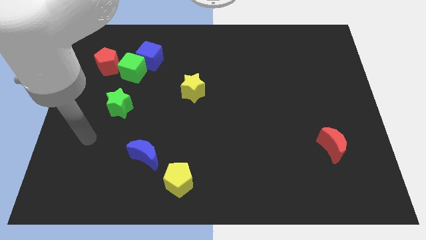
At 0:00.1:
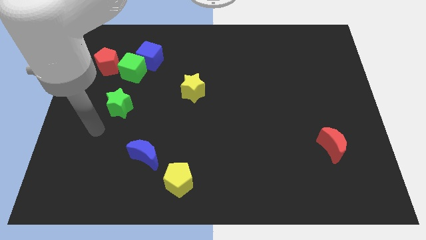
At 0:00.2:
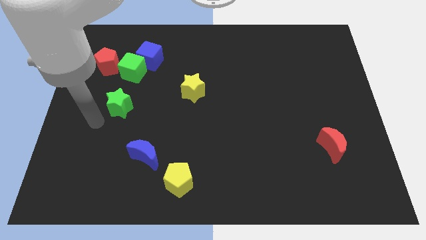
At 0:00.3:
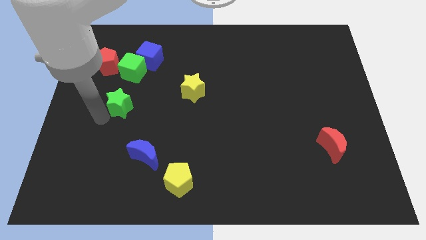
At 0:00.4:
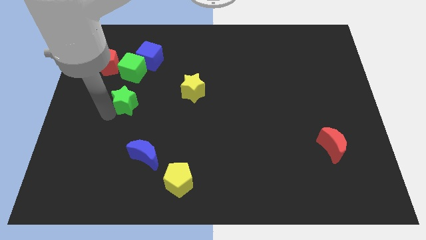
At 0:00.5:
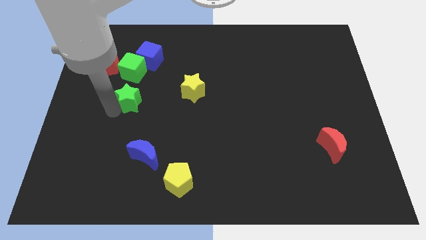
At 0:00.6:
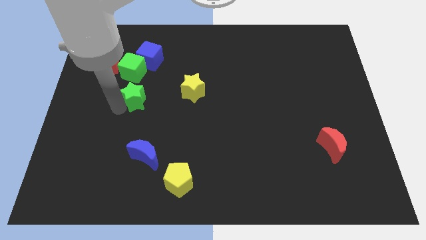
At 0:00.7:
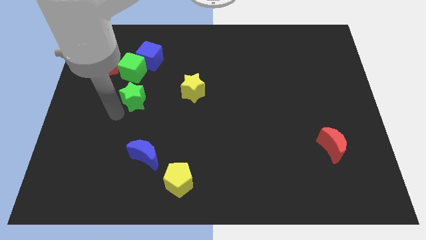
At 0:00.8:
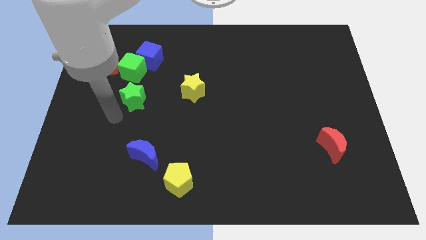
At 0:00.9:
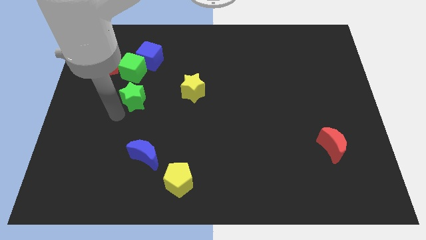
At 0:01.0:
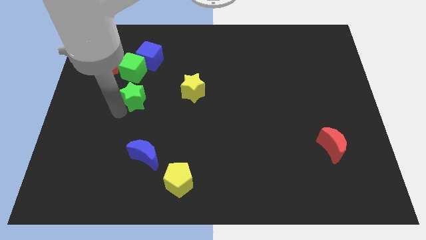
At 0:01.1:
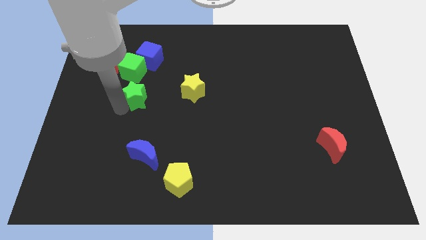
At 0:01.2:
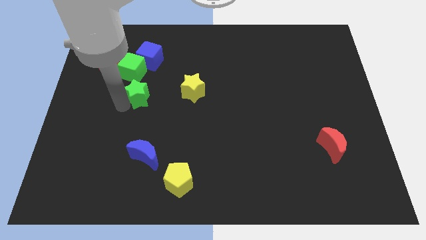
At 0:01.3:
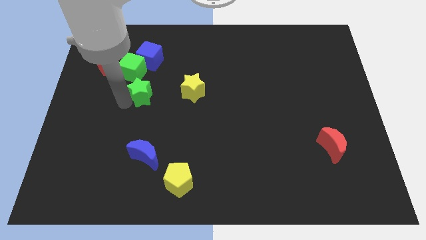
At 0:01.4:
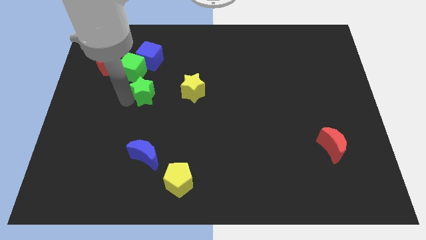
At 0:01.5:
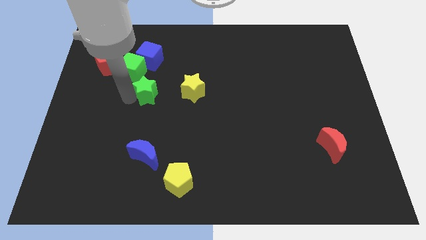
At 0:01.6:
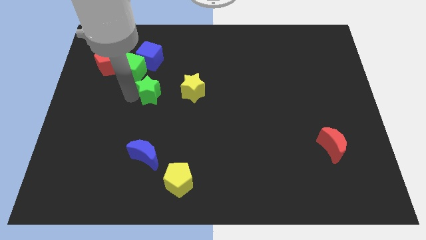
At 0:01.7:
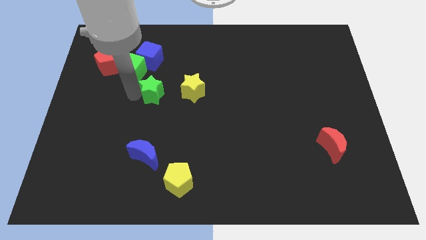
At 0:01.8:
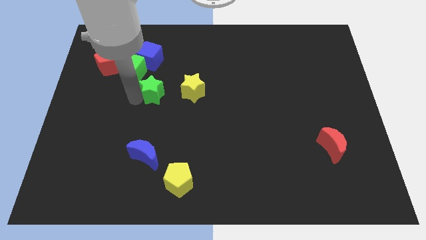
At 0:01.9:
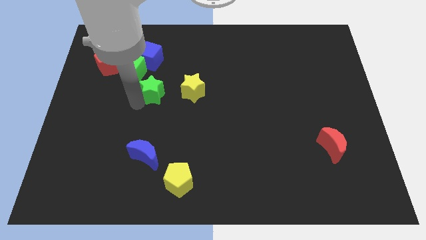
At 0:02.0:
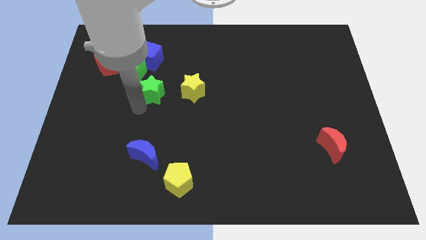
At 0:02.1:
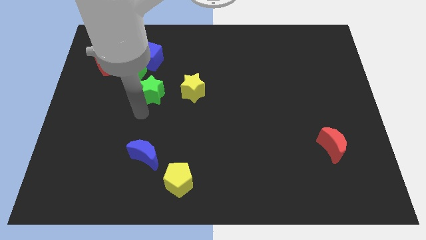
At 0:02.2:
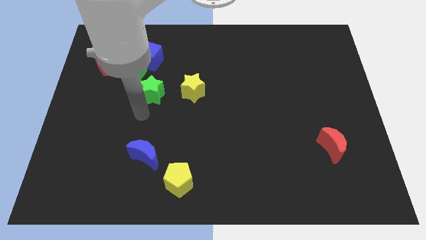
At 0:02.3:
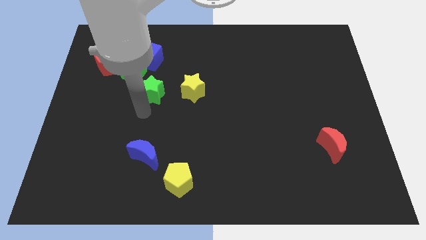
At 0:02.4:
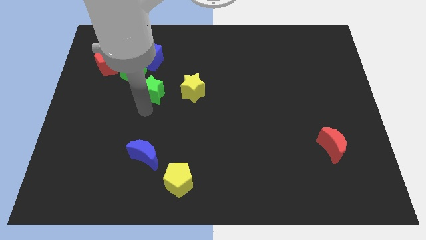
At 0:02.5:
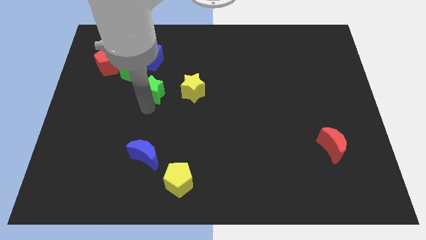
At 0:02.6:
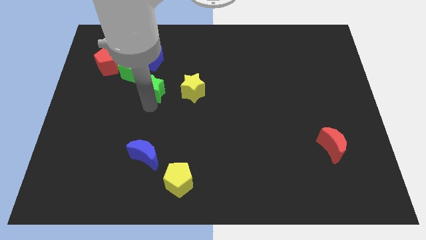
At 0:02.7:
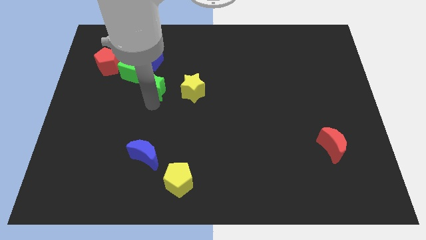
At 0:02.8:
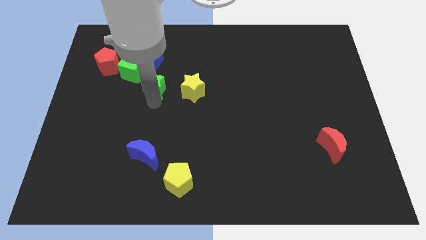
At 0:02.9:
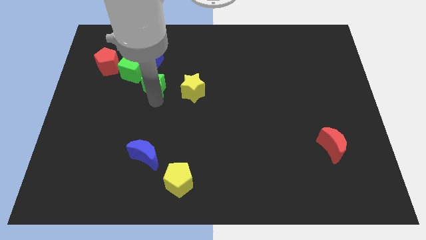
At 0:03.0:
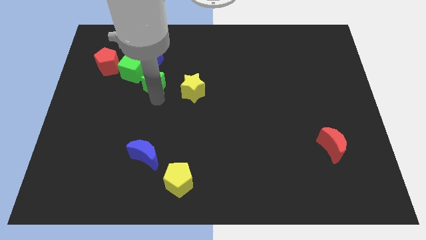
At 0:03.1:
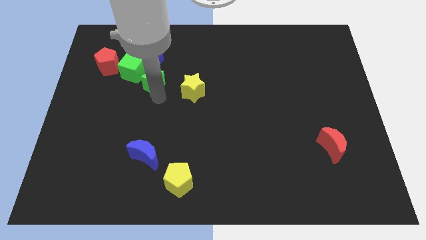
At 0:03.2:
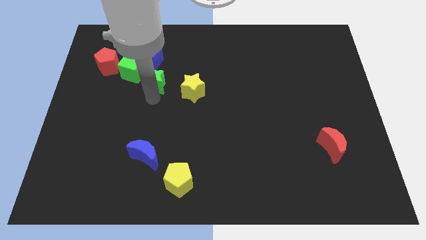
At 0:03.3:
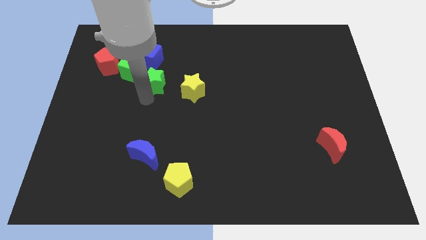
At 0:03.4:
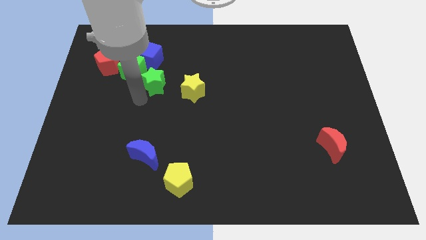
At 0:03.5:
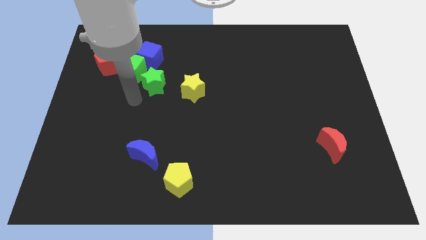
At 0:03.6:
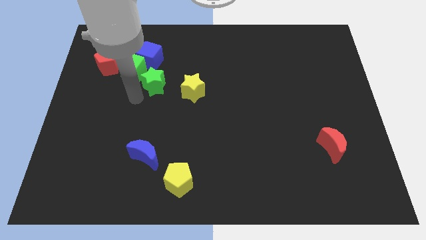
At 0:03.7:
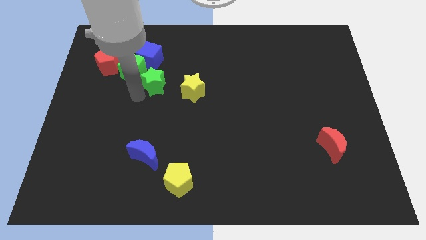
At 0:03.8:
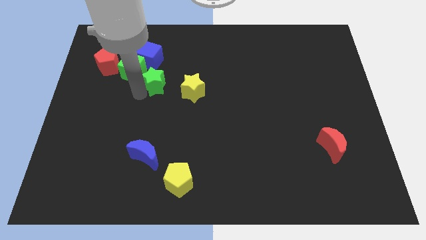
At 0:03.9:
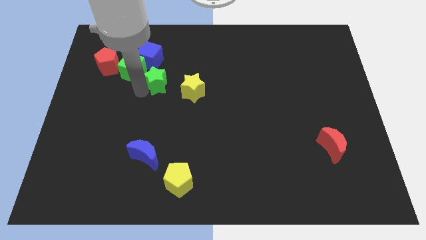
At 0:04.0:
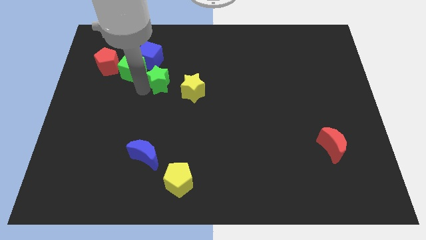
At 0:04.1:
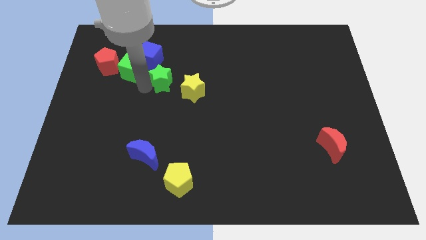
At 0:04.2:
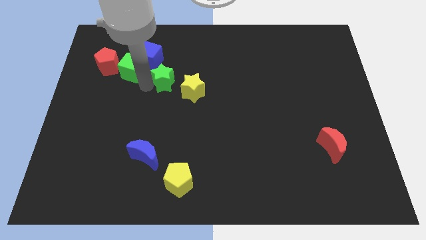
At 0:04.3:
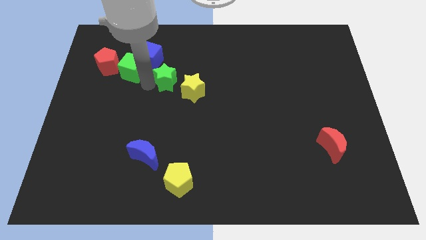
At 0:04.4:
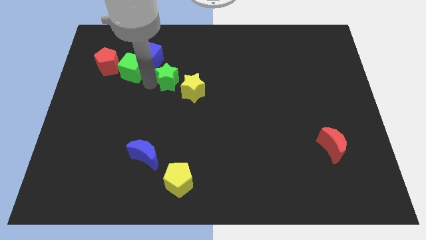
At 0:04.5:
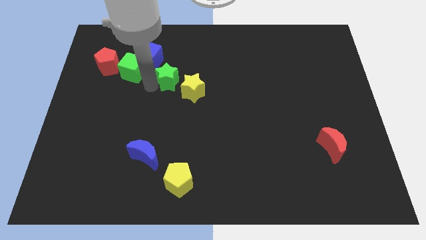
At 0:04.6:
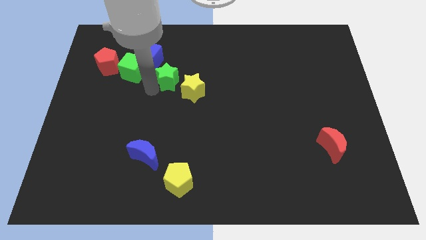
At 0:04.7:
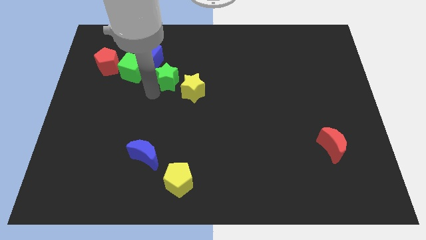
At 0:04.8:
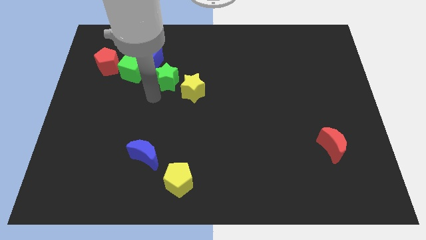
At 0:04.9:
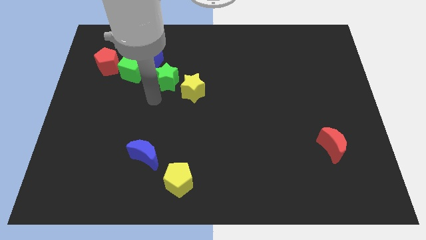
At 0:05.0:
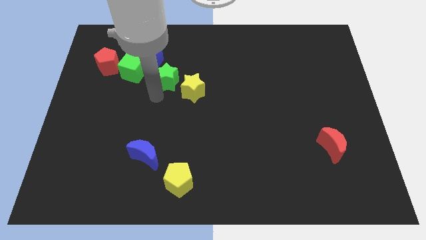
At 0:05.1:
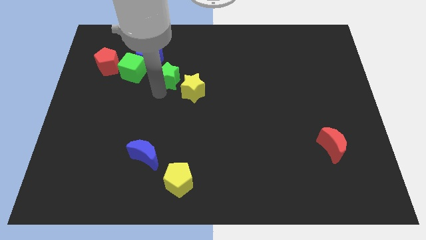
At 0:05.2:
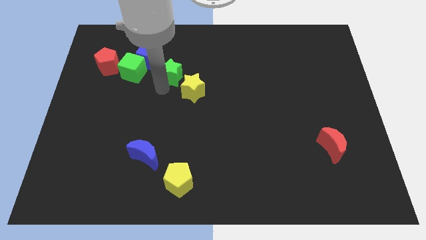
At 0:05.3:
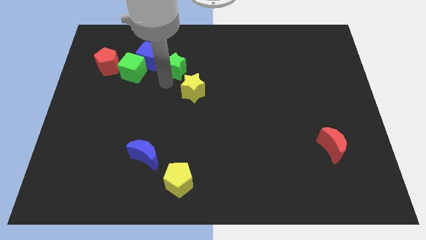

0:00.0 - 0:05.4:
move the green star to the right of the blue cube

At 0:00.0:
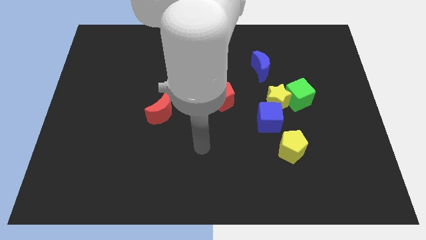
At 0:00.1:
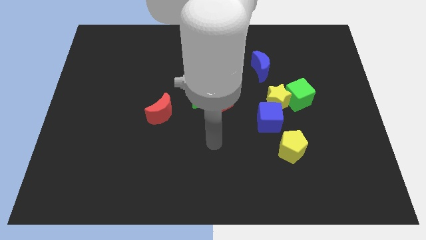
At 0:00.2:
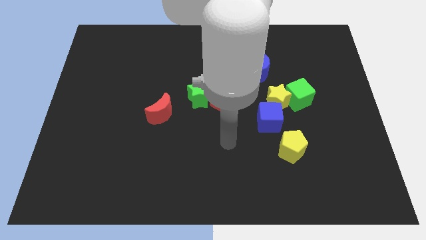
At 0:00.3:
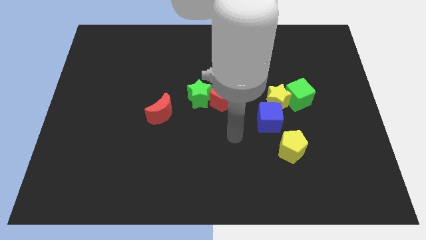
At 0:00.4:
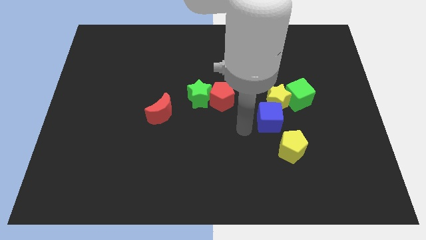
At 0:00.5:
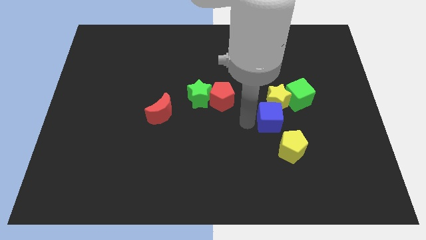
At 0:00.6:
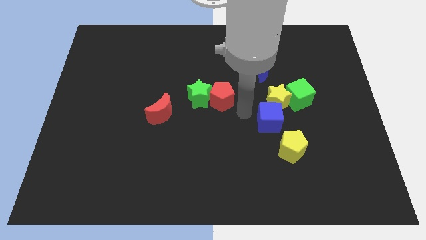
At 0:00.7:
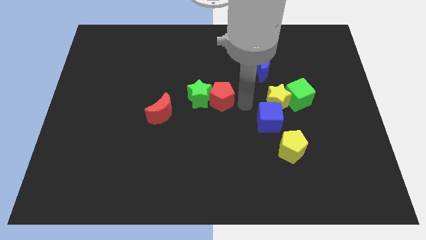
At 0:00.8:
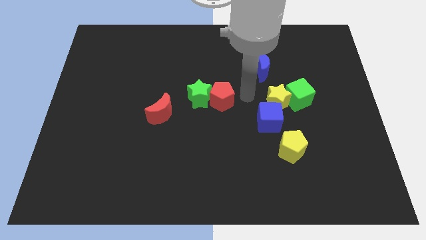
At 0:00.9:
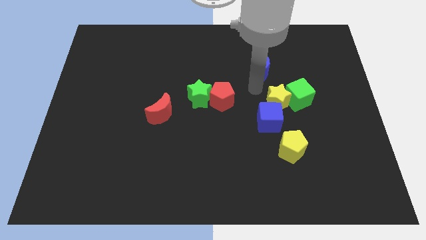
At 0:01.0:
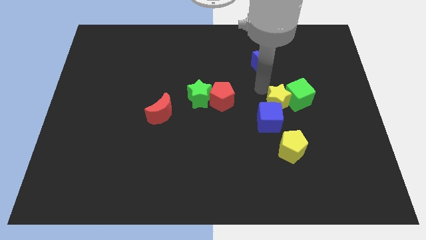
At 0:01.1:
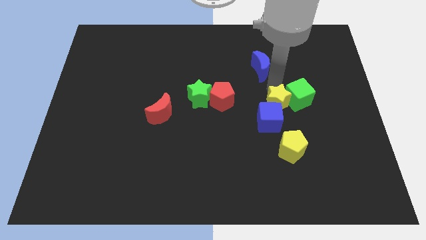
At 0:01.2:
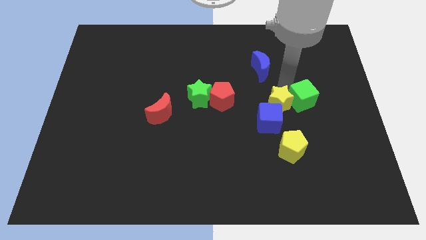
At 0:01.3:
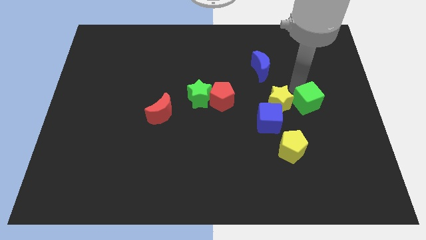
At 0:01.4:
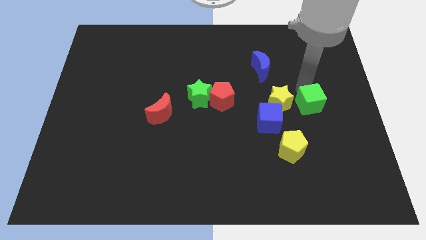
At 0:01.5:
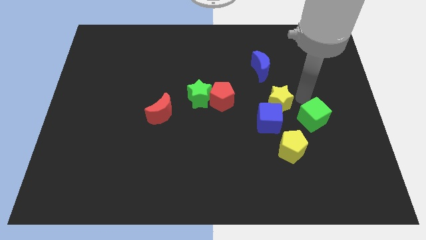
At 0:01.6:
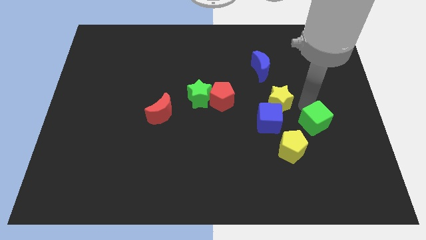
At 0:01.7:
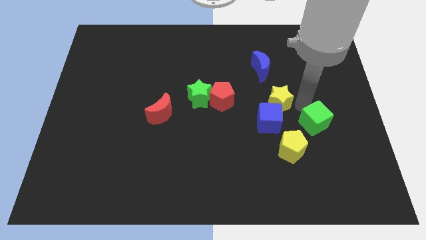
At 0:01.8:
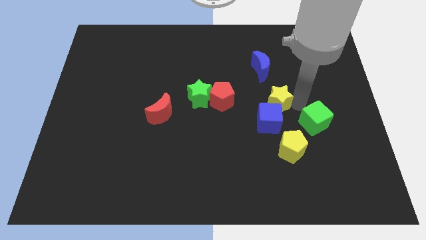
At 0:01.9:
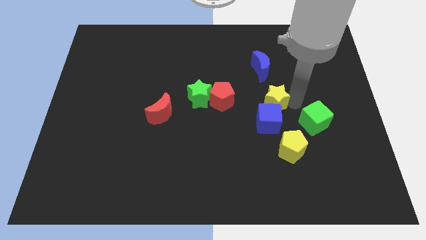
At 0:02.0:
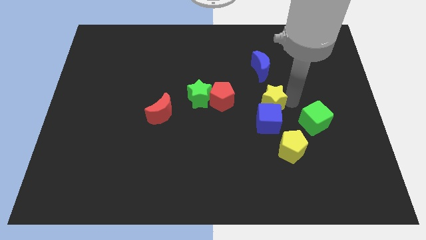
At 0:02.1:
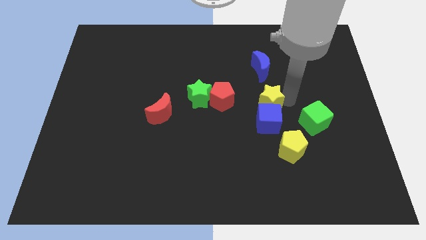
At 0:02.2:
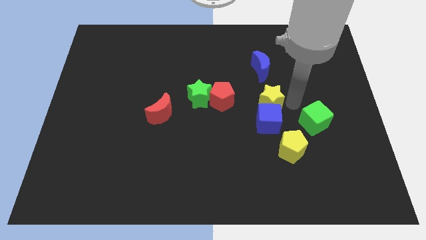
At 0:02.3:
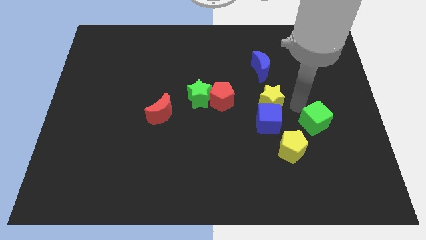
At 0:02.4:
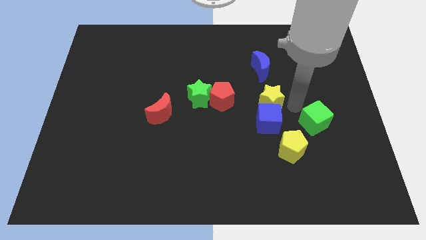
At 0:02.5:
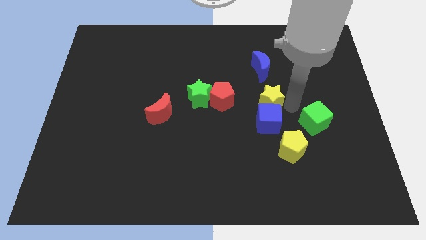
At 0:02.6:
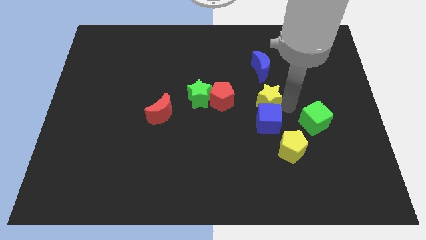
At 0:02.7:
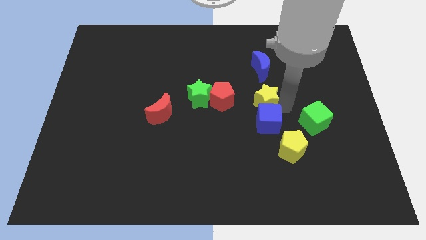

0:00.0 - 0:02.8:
slide the yellow star to the right side of the green star
